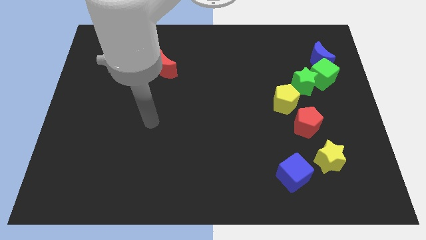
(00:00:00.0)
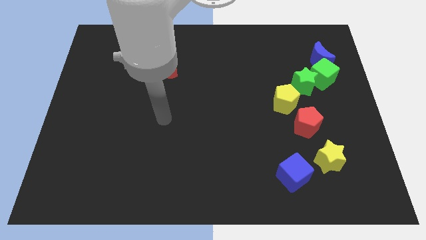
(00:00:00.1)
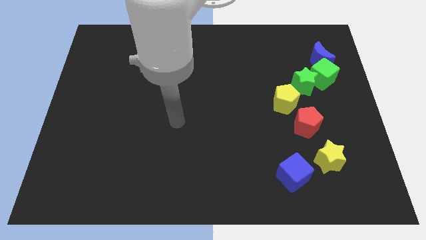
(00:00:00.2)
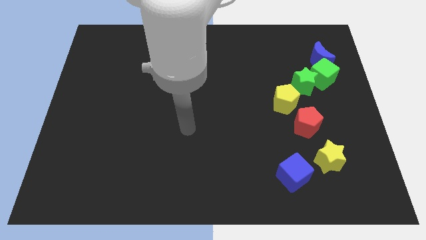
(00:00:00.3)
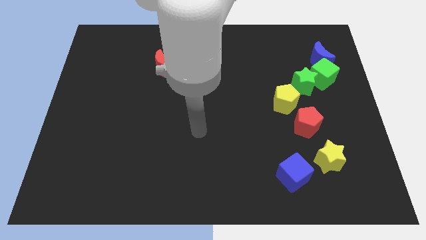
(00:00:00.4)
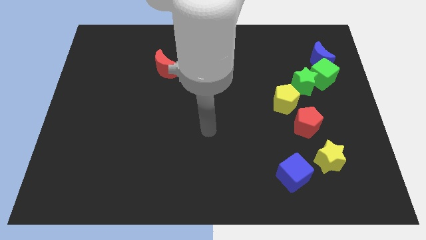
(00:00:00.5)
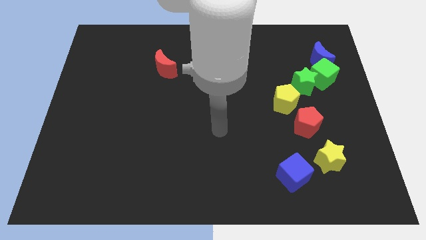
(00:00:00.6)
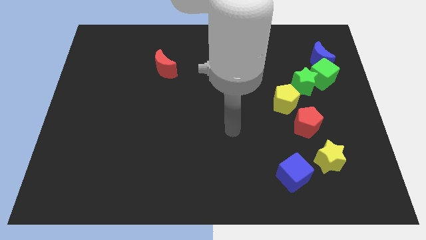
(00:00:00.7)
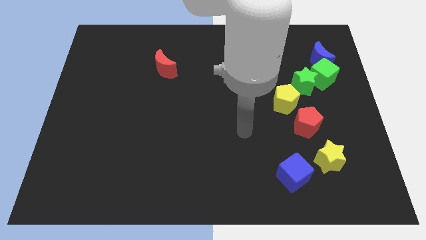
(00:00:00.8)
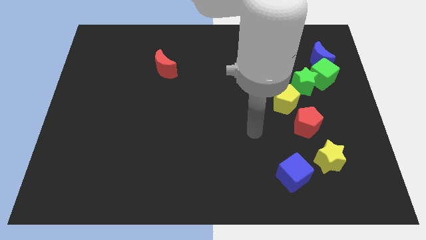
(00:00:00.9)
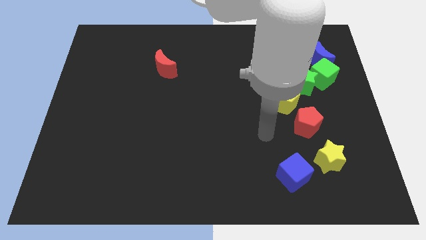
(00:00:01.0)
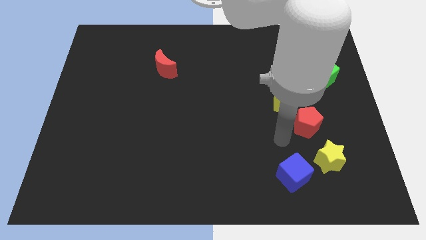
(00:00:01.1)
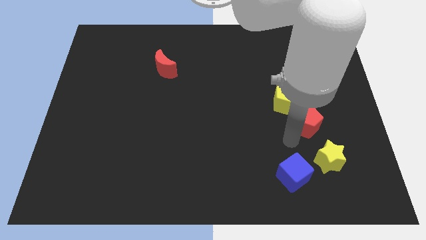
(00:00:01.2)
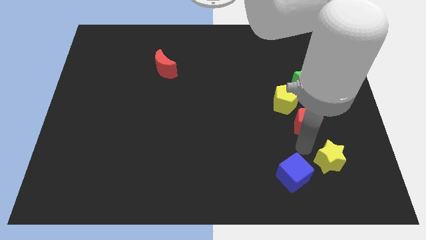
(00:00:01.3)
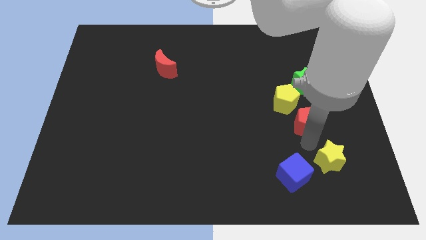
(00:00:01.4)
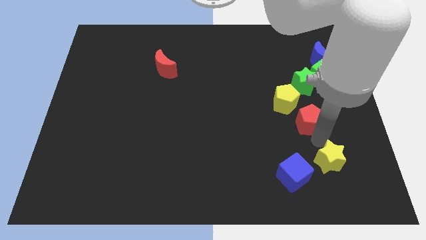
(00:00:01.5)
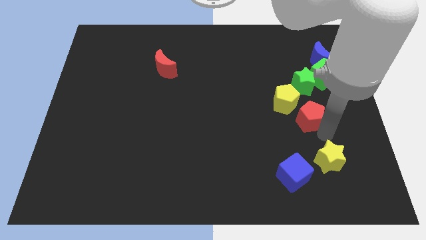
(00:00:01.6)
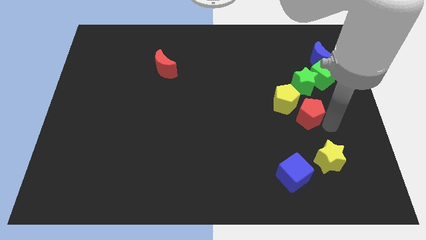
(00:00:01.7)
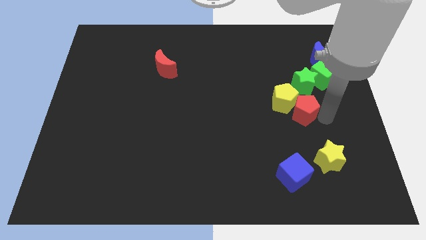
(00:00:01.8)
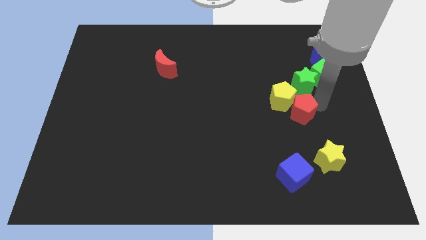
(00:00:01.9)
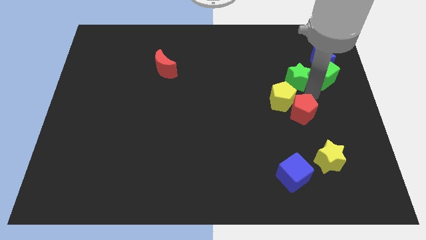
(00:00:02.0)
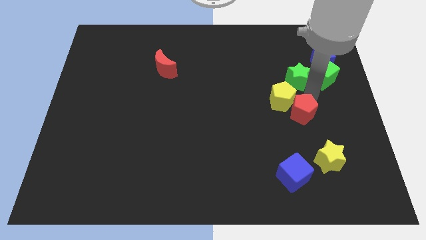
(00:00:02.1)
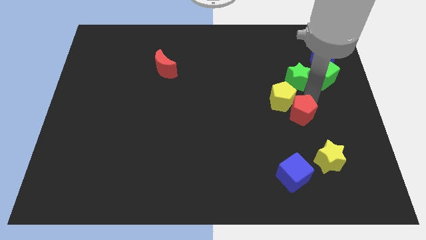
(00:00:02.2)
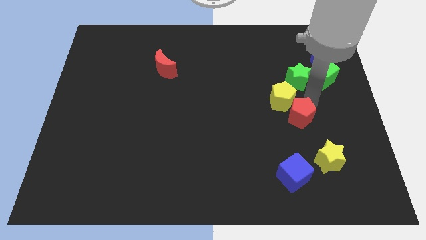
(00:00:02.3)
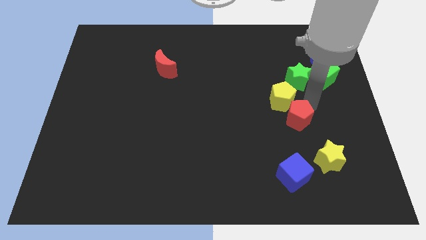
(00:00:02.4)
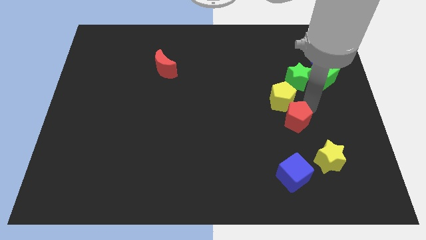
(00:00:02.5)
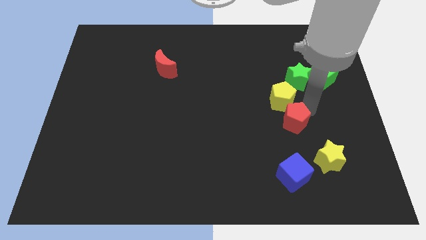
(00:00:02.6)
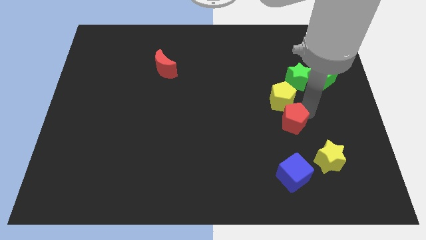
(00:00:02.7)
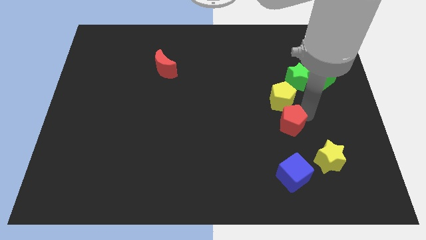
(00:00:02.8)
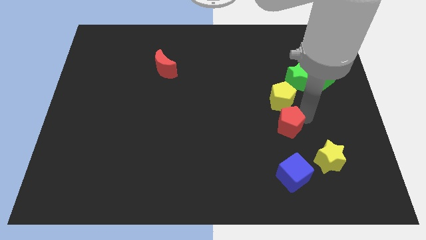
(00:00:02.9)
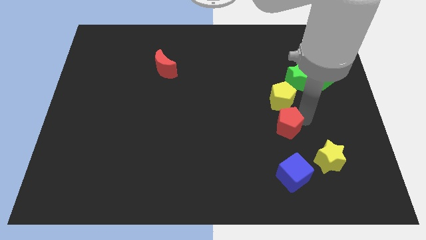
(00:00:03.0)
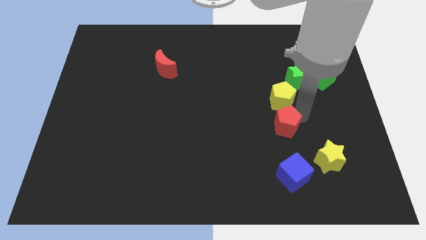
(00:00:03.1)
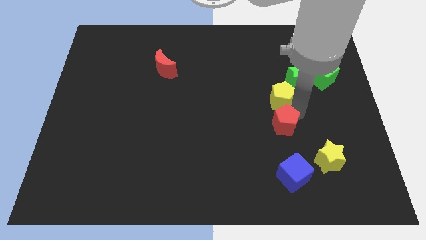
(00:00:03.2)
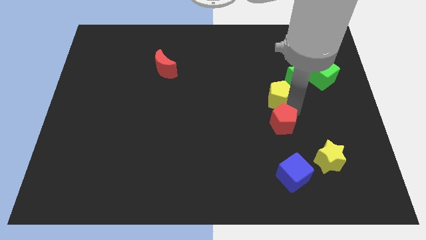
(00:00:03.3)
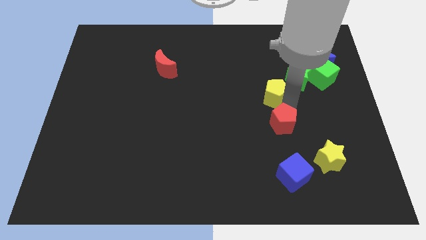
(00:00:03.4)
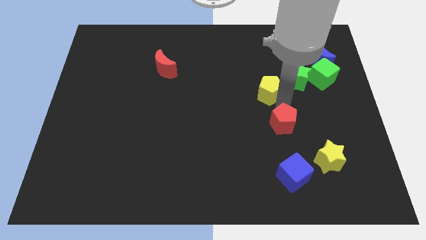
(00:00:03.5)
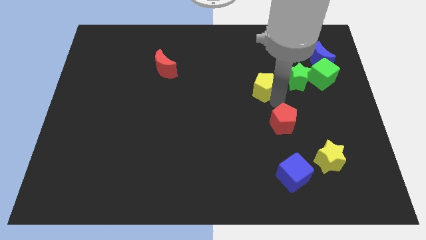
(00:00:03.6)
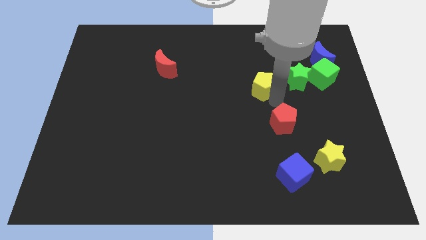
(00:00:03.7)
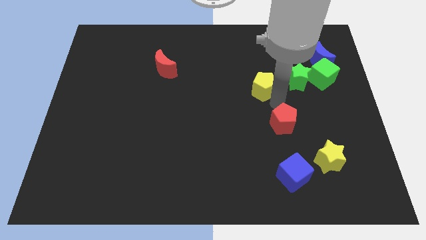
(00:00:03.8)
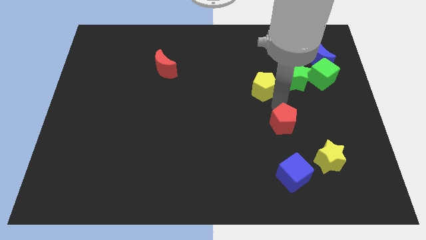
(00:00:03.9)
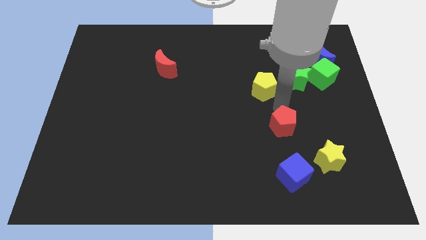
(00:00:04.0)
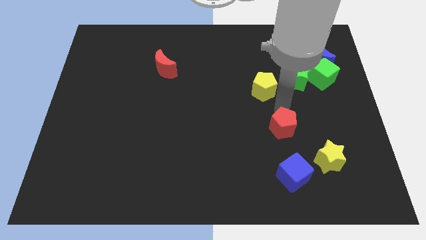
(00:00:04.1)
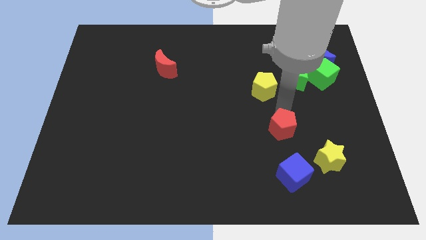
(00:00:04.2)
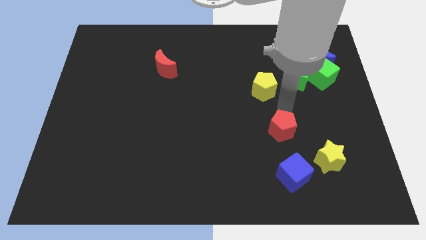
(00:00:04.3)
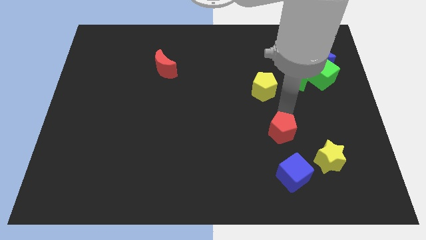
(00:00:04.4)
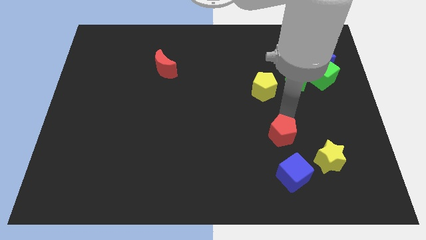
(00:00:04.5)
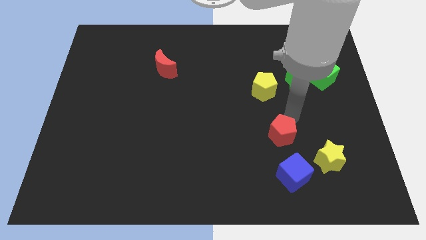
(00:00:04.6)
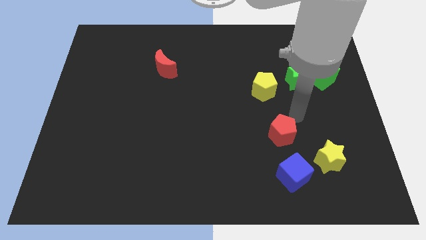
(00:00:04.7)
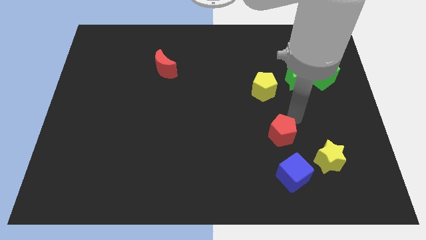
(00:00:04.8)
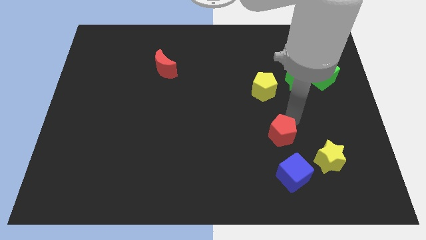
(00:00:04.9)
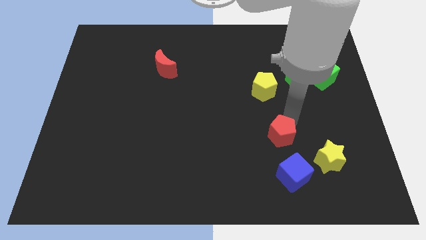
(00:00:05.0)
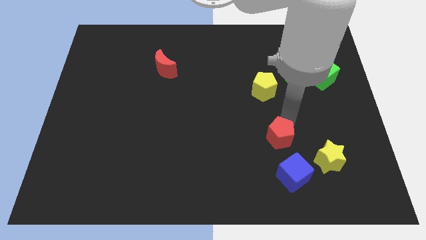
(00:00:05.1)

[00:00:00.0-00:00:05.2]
slide the red pentagon a little diagonally downwards and to the left

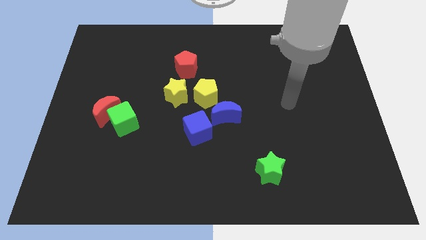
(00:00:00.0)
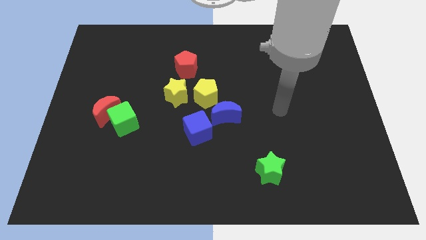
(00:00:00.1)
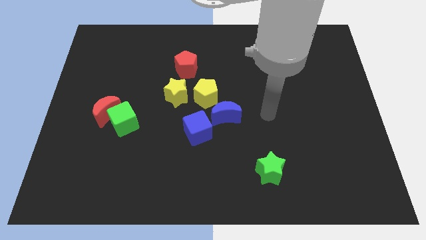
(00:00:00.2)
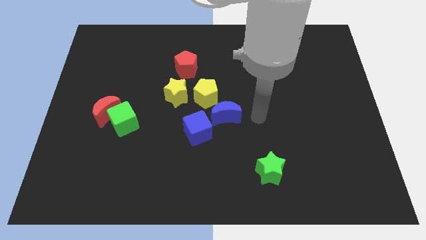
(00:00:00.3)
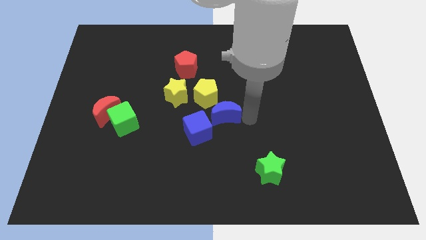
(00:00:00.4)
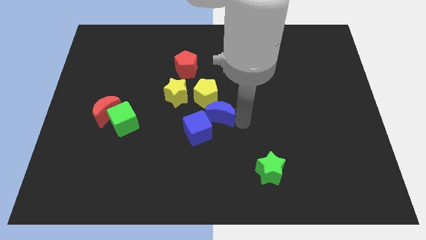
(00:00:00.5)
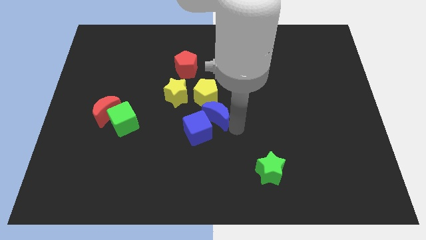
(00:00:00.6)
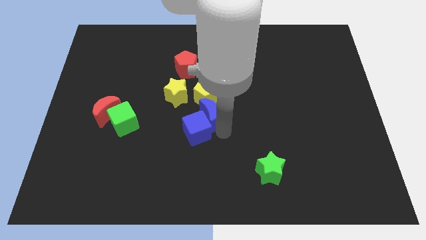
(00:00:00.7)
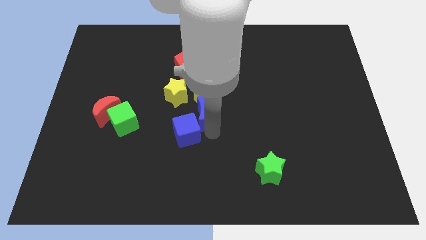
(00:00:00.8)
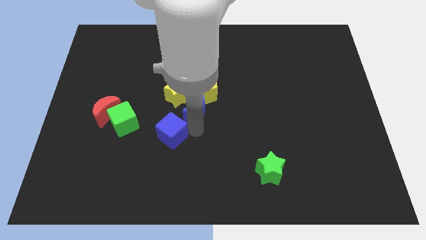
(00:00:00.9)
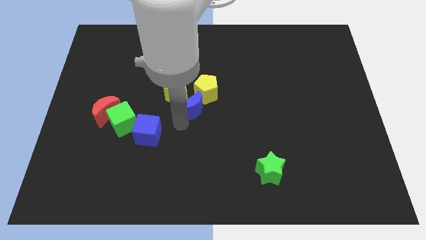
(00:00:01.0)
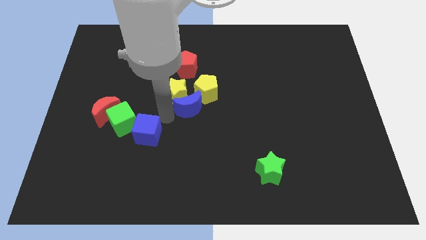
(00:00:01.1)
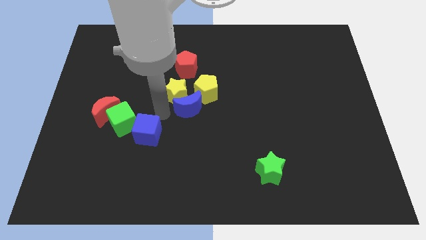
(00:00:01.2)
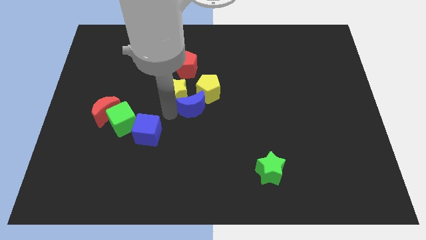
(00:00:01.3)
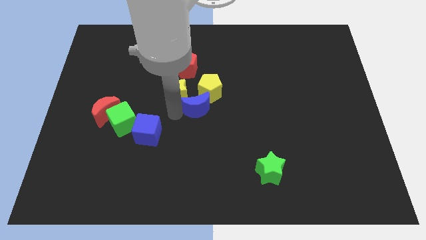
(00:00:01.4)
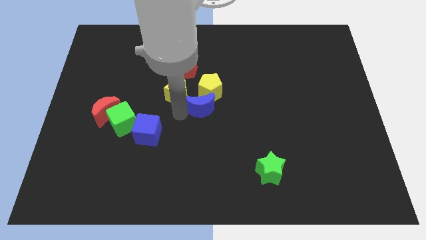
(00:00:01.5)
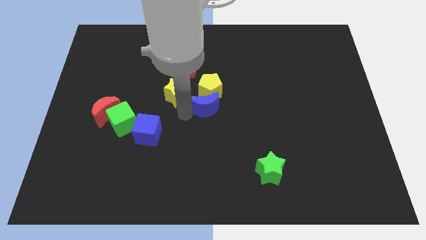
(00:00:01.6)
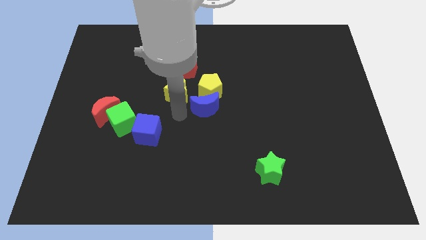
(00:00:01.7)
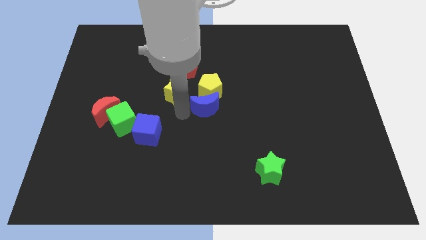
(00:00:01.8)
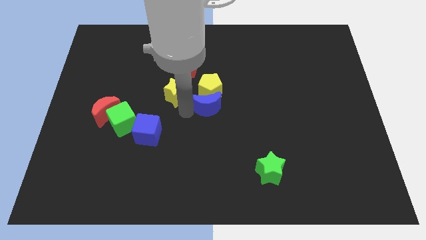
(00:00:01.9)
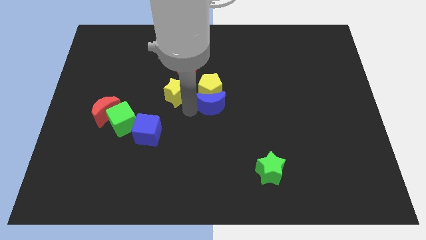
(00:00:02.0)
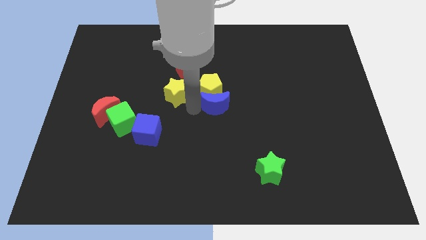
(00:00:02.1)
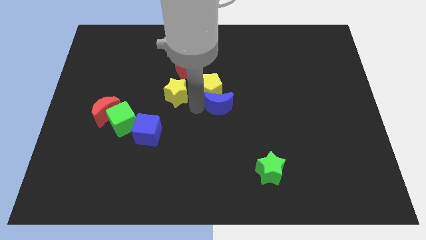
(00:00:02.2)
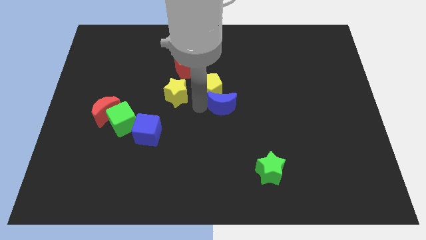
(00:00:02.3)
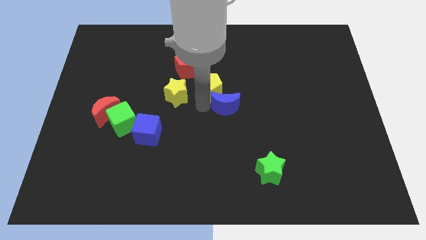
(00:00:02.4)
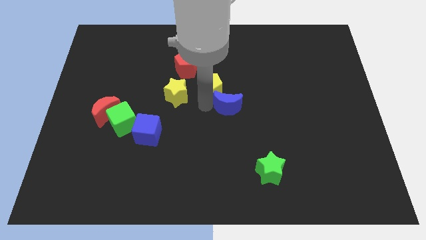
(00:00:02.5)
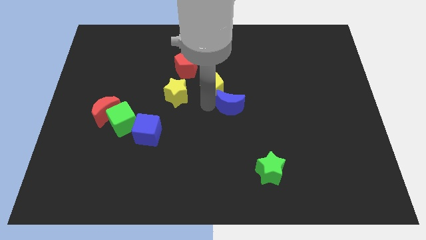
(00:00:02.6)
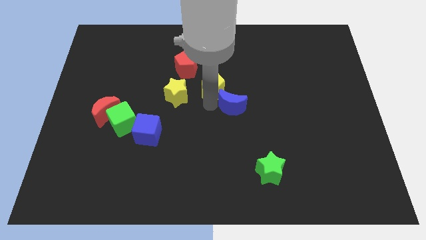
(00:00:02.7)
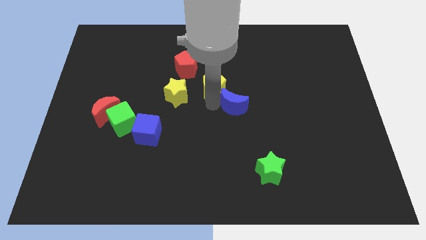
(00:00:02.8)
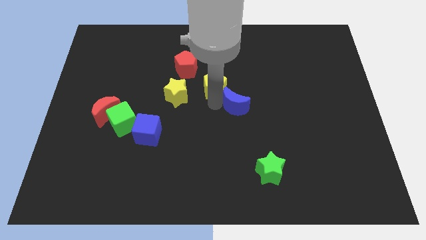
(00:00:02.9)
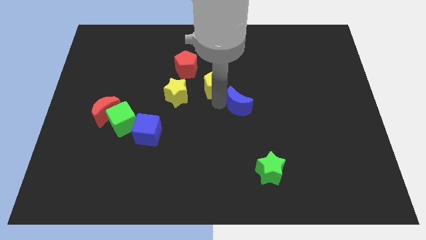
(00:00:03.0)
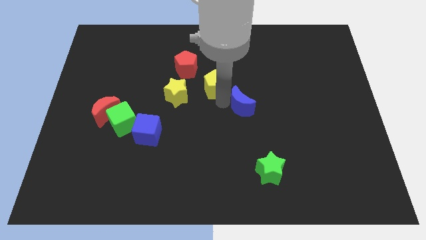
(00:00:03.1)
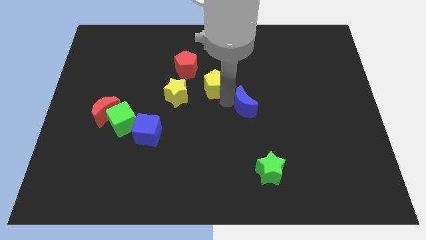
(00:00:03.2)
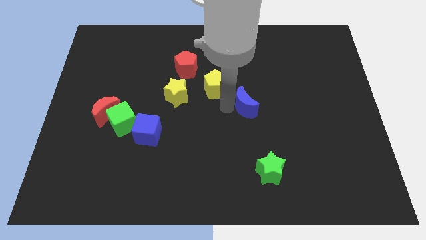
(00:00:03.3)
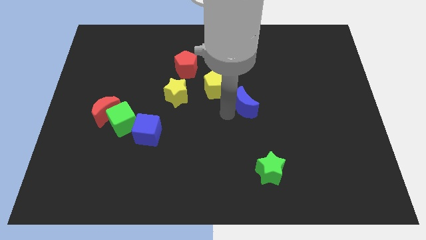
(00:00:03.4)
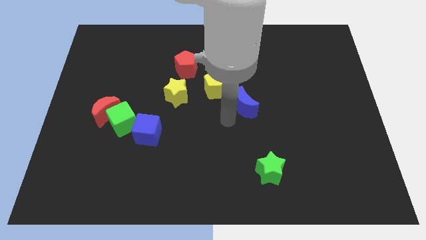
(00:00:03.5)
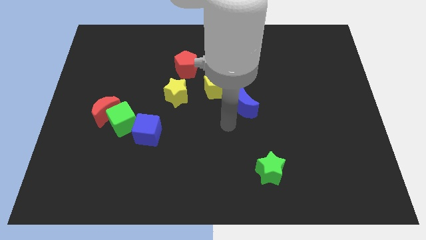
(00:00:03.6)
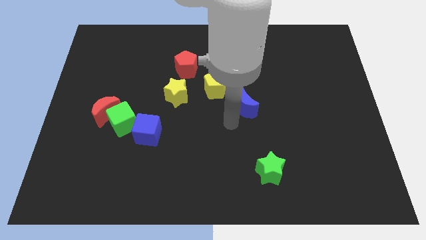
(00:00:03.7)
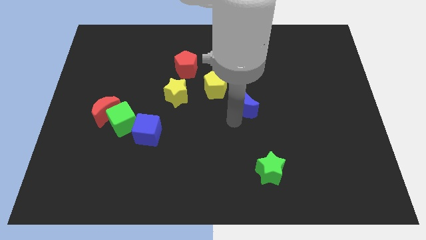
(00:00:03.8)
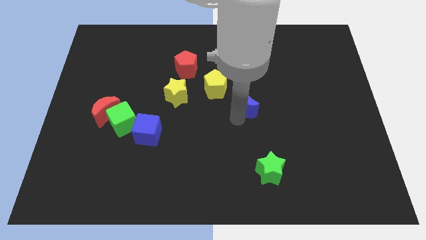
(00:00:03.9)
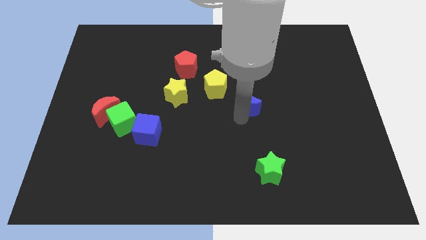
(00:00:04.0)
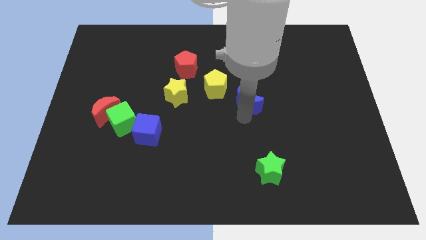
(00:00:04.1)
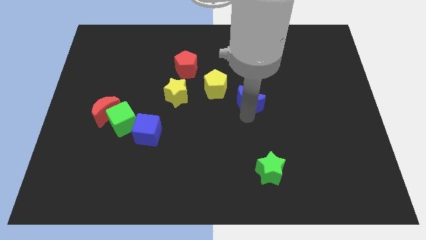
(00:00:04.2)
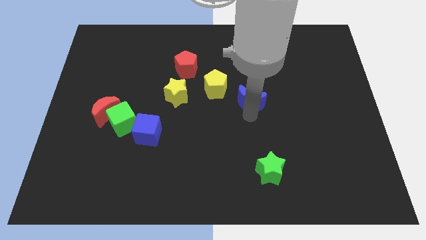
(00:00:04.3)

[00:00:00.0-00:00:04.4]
push the blue moon up and to the right slightly
